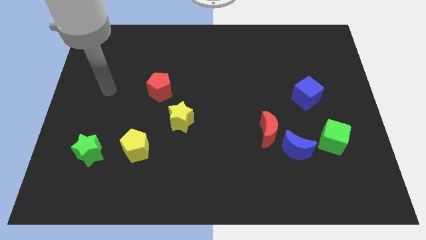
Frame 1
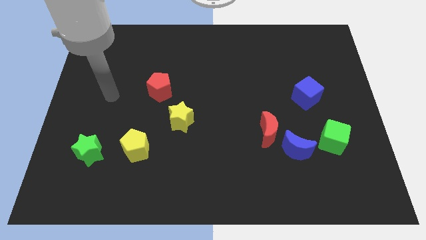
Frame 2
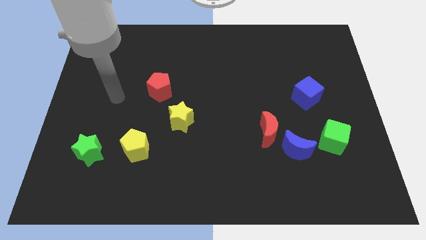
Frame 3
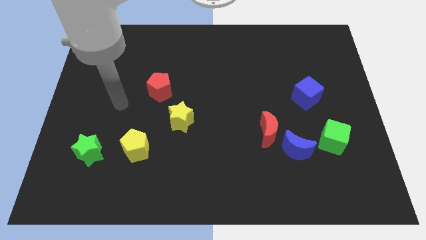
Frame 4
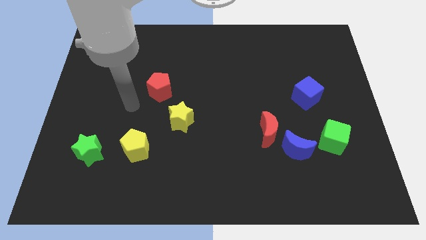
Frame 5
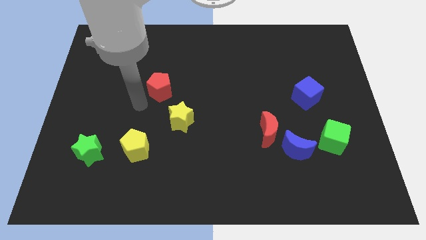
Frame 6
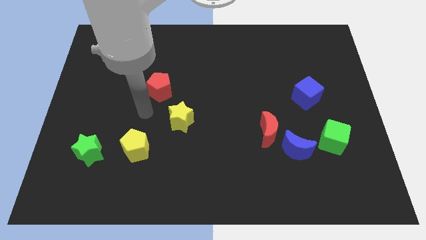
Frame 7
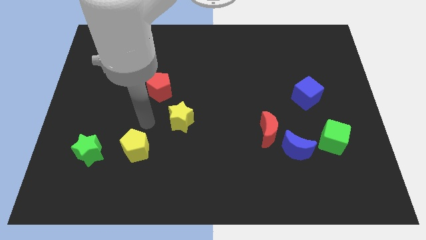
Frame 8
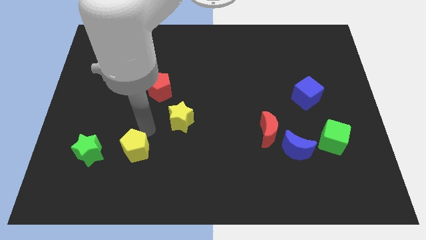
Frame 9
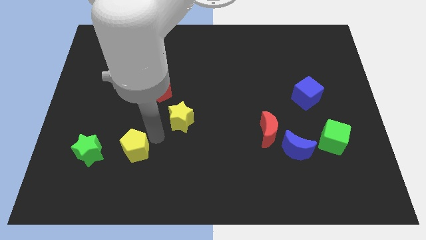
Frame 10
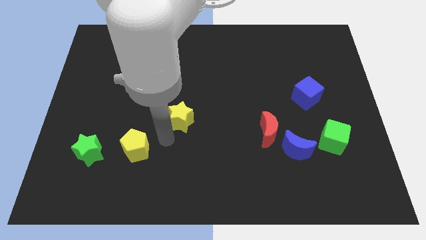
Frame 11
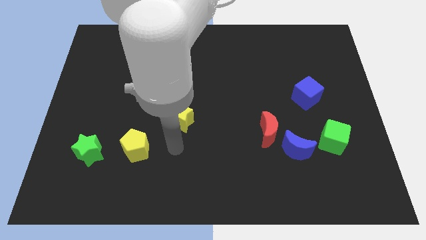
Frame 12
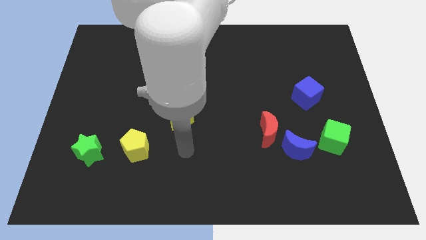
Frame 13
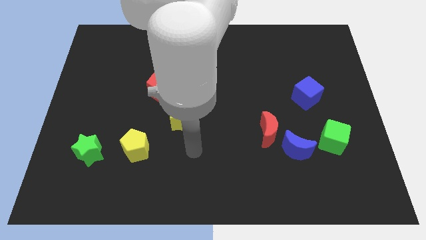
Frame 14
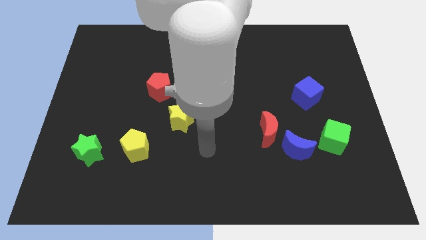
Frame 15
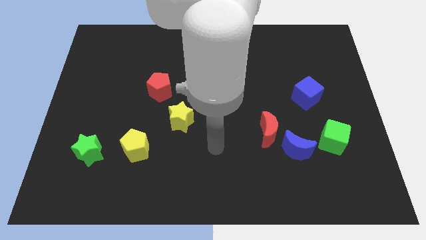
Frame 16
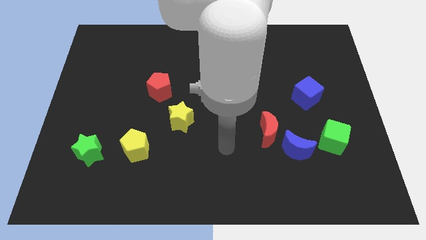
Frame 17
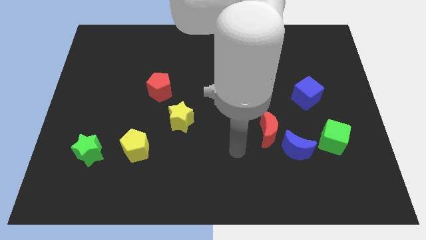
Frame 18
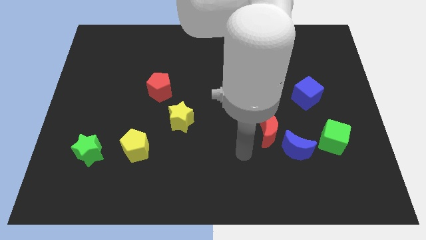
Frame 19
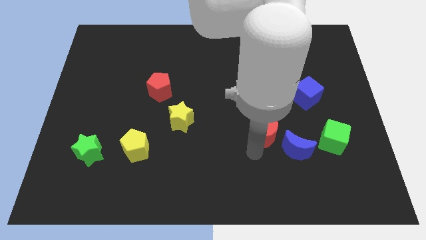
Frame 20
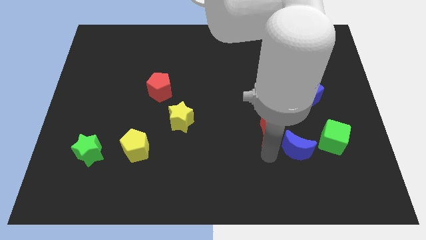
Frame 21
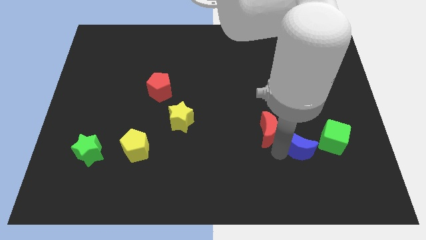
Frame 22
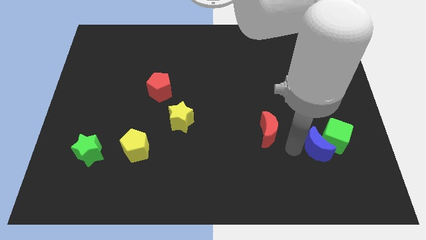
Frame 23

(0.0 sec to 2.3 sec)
separate the red moon from the blue moon

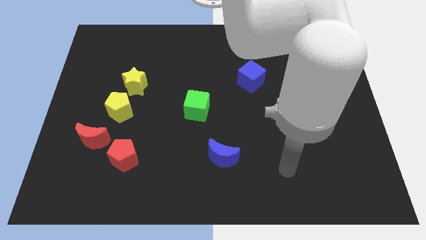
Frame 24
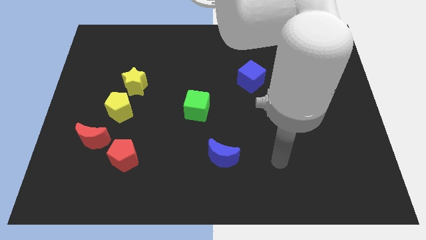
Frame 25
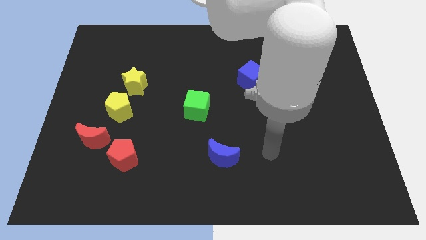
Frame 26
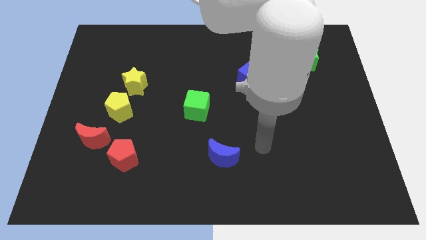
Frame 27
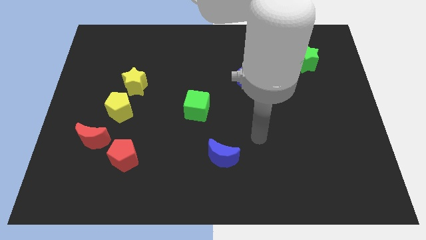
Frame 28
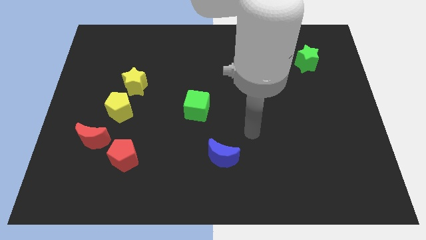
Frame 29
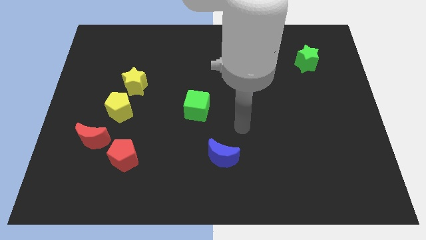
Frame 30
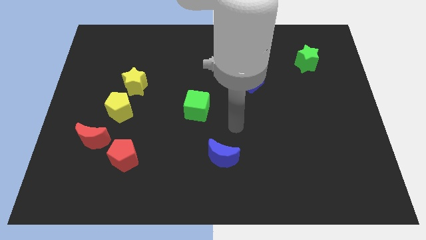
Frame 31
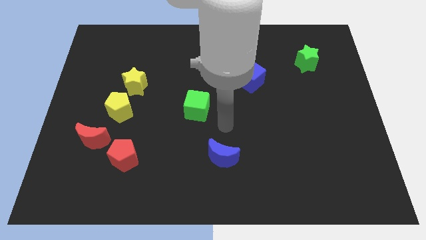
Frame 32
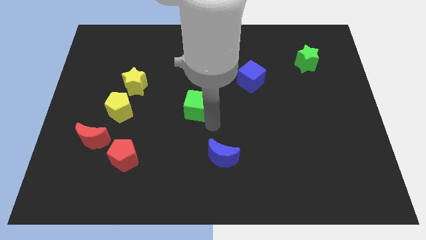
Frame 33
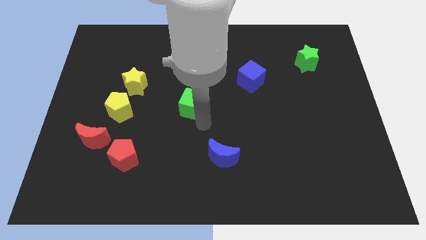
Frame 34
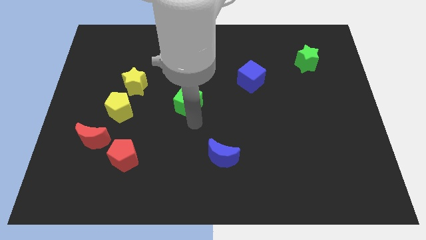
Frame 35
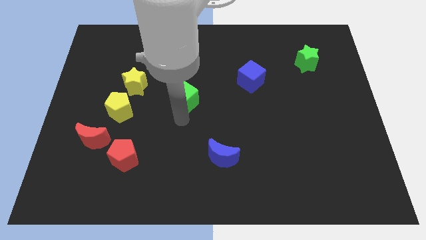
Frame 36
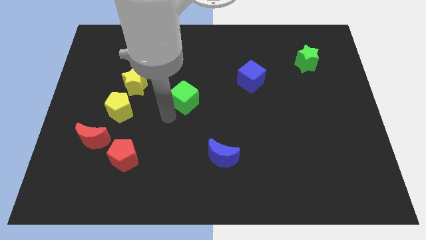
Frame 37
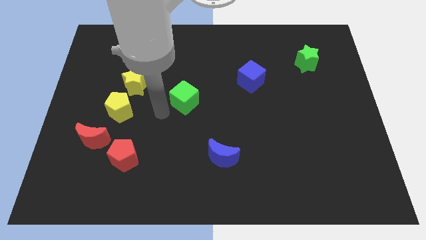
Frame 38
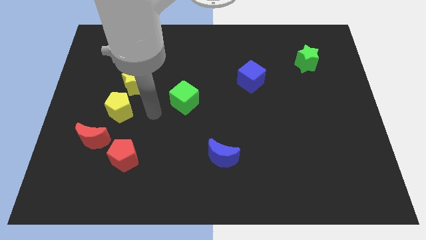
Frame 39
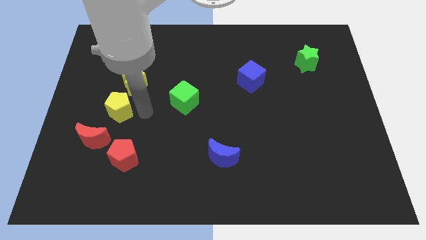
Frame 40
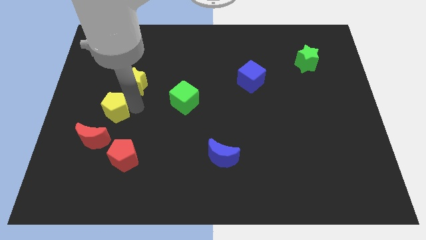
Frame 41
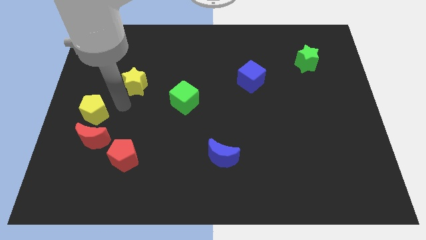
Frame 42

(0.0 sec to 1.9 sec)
pull the yellow star apart from the yellow pentagon

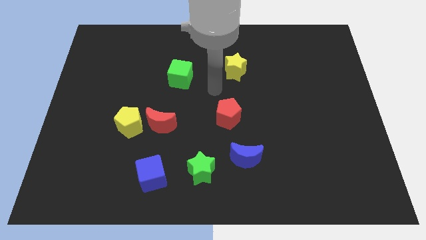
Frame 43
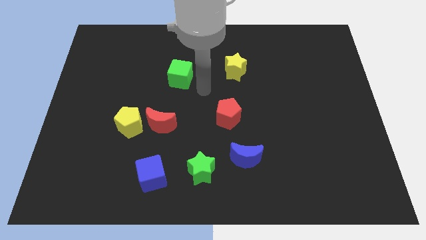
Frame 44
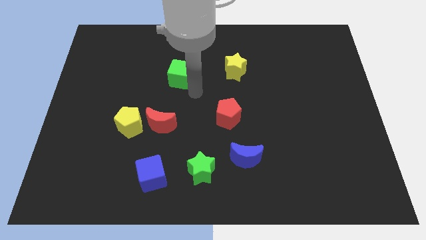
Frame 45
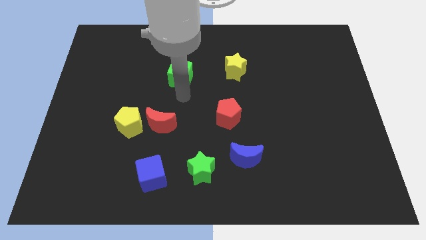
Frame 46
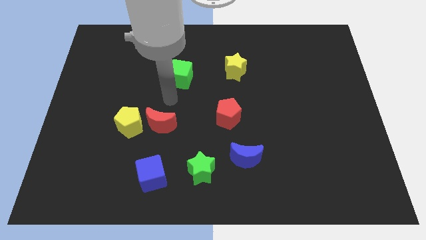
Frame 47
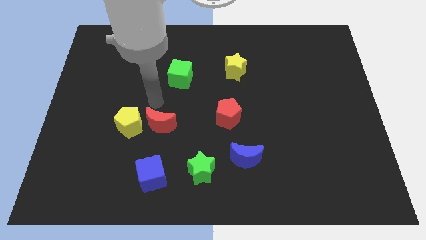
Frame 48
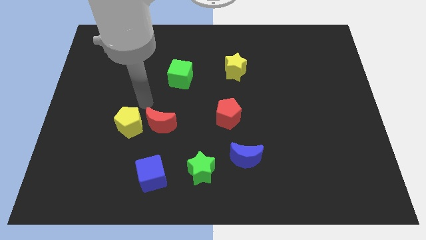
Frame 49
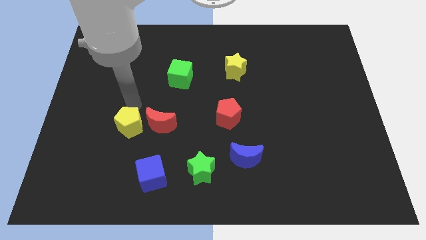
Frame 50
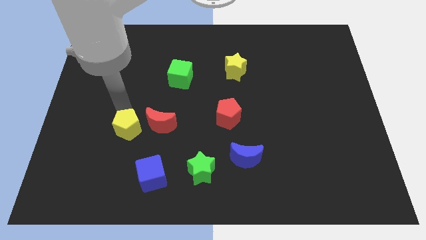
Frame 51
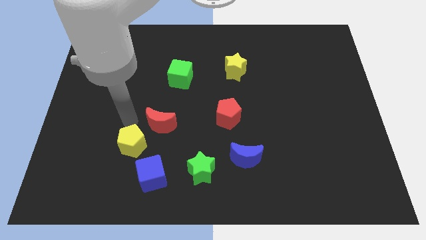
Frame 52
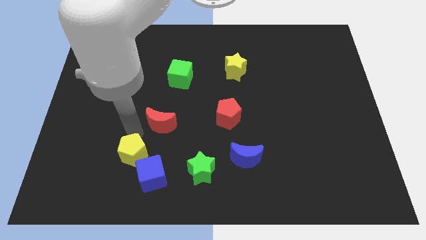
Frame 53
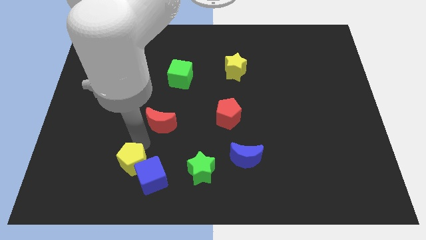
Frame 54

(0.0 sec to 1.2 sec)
separate the red moon from the yellow pentagon

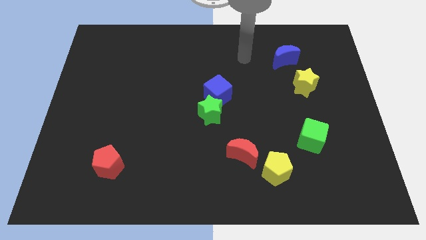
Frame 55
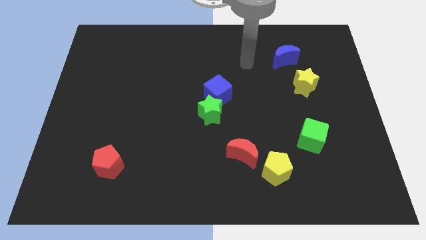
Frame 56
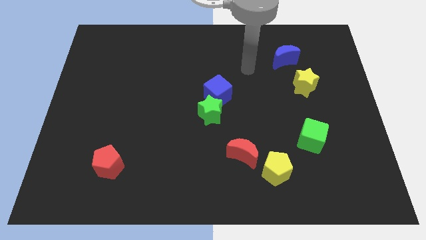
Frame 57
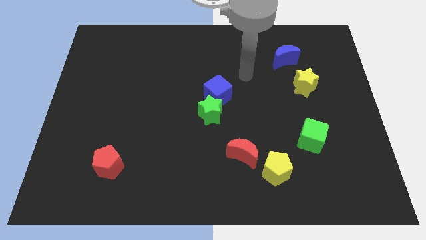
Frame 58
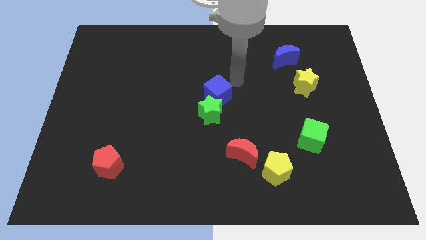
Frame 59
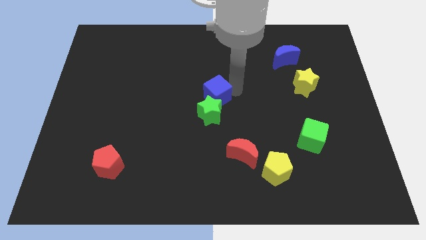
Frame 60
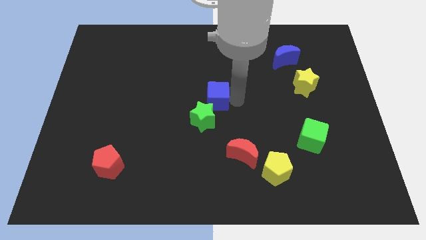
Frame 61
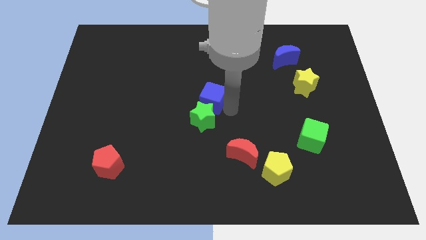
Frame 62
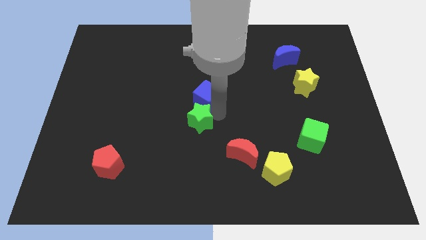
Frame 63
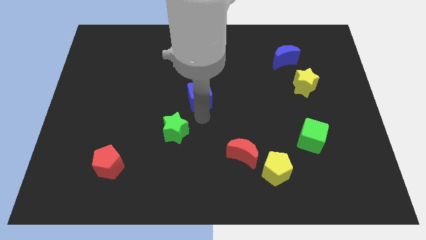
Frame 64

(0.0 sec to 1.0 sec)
separate the blue cube from the green star

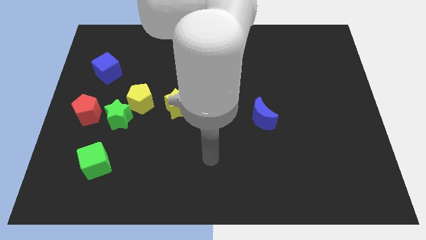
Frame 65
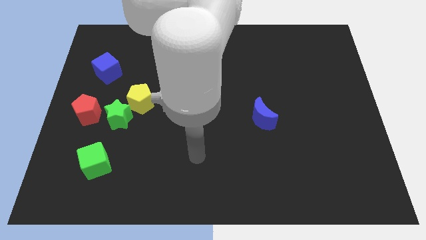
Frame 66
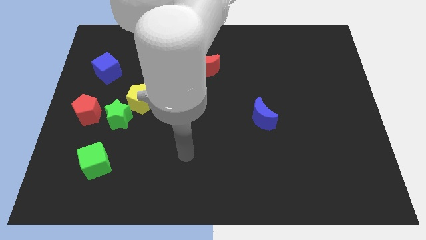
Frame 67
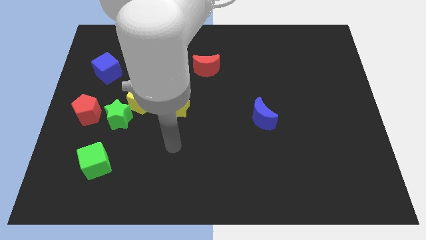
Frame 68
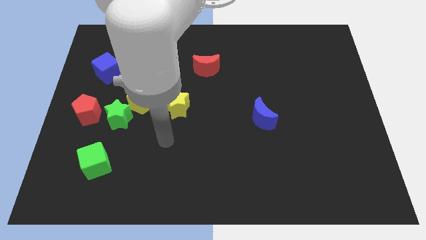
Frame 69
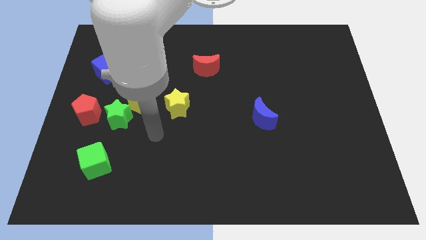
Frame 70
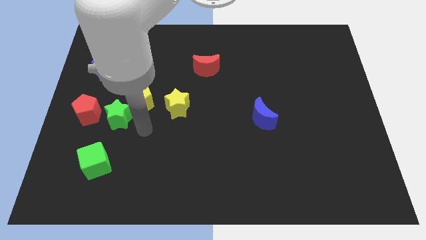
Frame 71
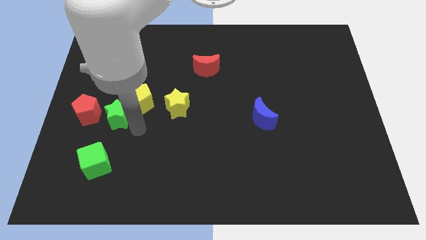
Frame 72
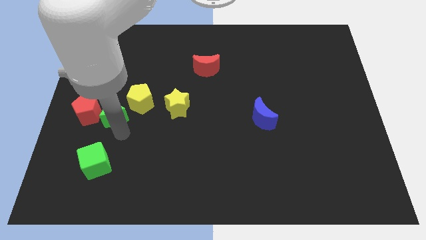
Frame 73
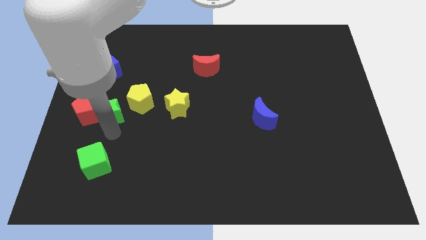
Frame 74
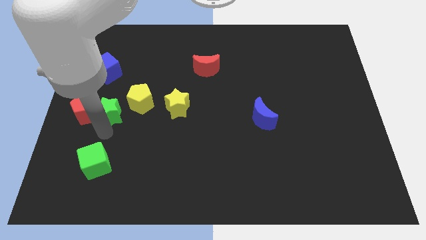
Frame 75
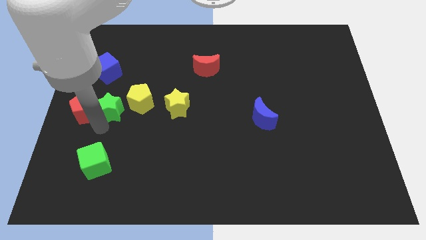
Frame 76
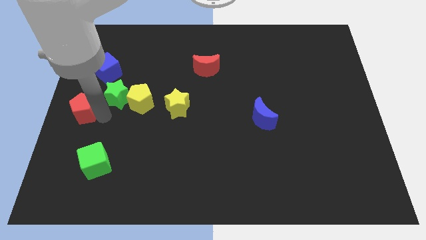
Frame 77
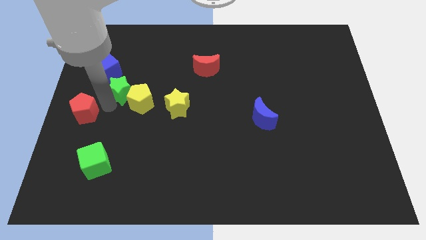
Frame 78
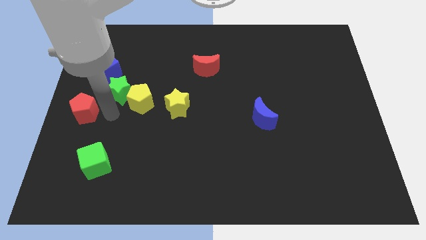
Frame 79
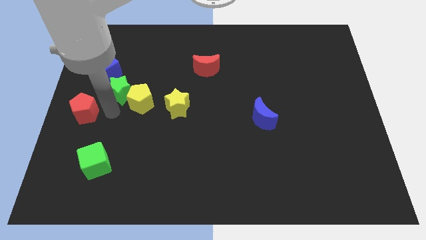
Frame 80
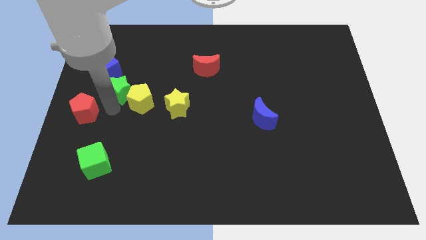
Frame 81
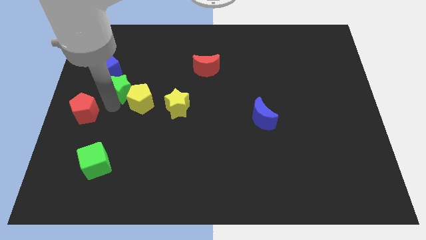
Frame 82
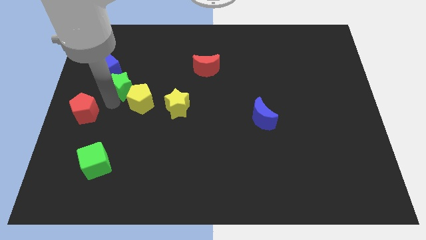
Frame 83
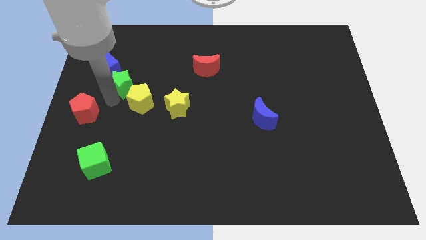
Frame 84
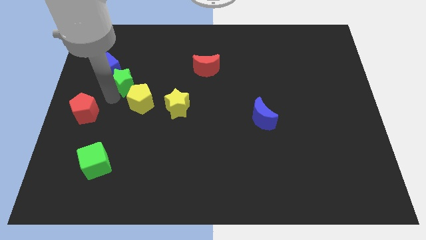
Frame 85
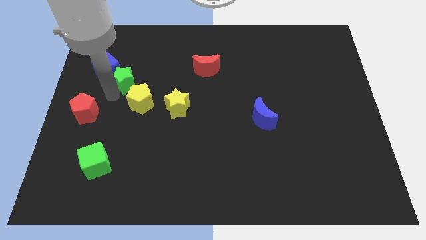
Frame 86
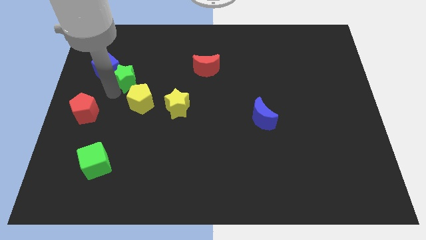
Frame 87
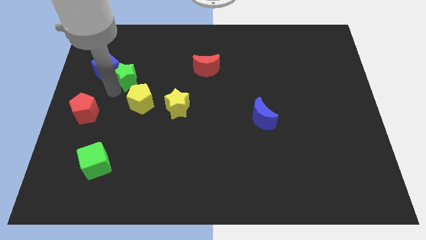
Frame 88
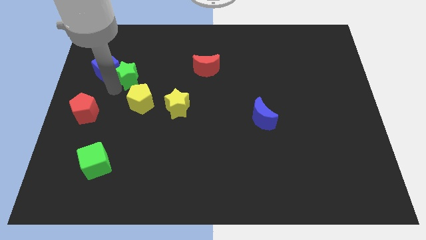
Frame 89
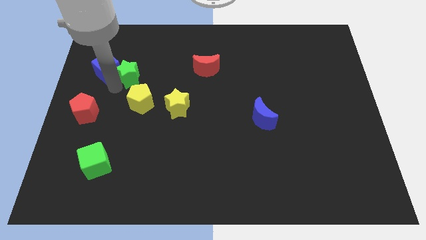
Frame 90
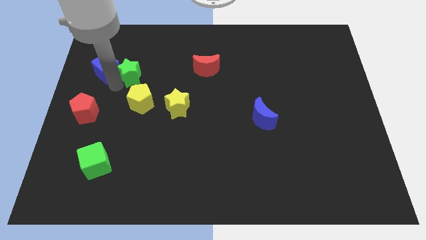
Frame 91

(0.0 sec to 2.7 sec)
move the green star away from the yellow pentagon and red pentagon

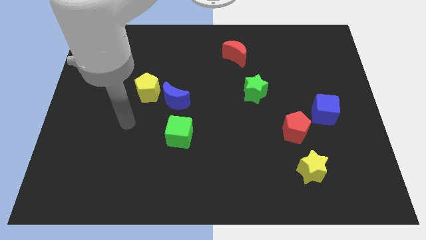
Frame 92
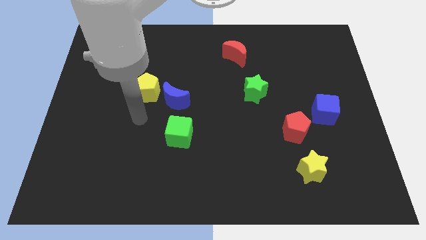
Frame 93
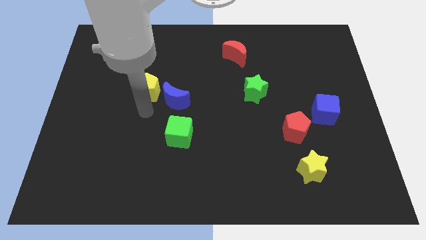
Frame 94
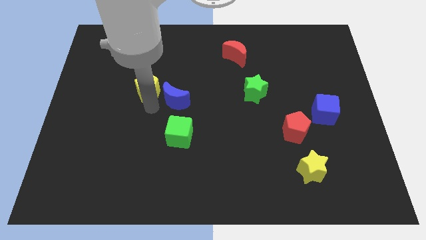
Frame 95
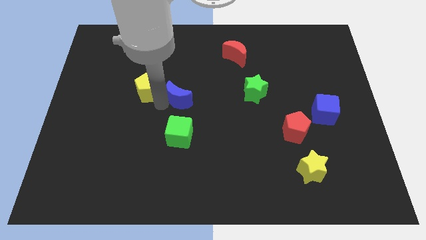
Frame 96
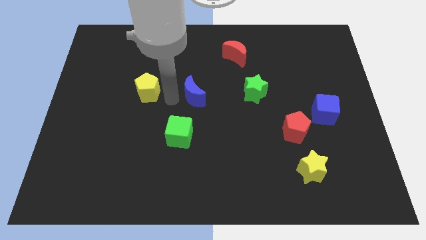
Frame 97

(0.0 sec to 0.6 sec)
separate the yellow pentagon from the blue moon
